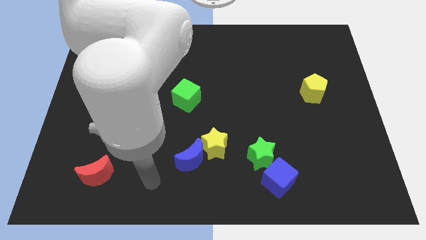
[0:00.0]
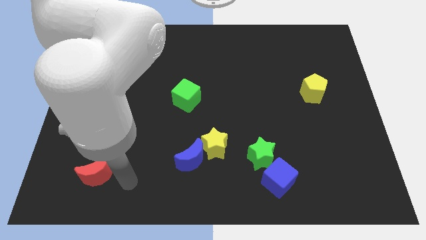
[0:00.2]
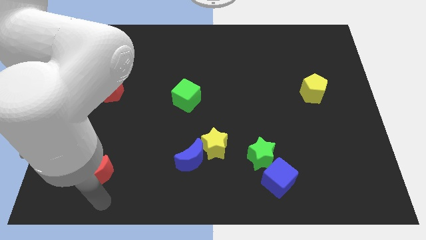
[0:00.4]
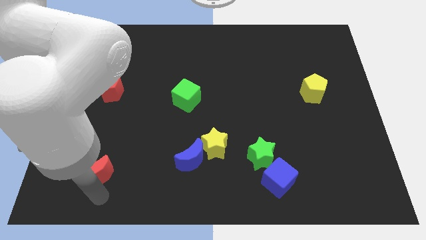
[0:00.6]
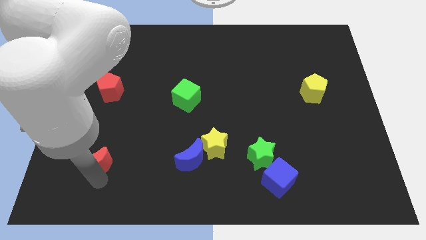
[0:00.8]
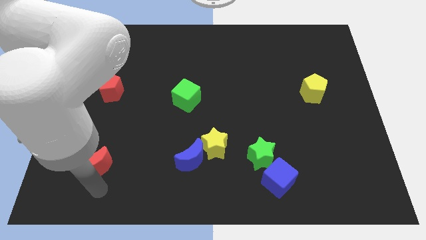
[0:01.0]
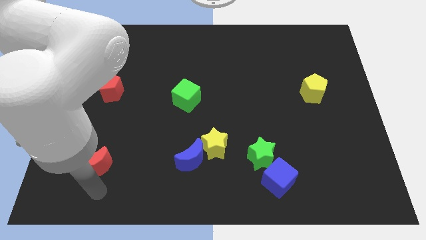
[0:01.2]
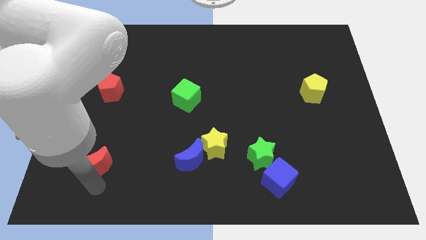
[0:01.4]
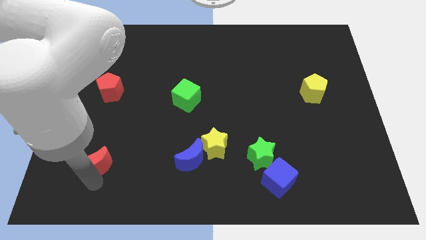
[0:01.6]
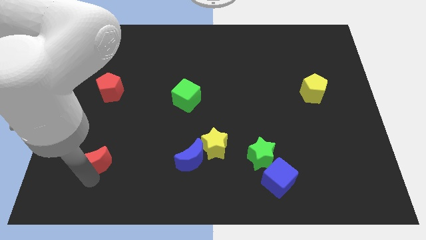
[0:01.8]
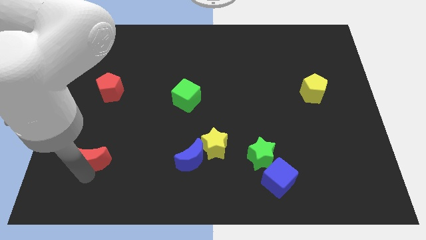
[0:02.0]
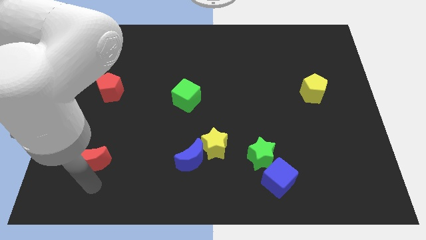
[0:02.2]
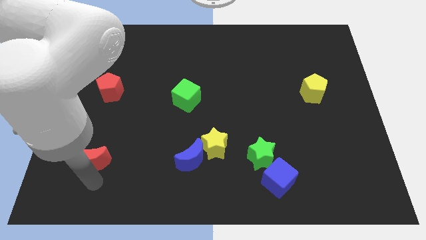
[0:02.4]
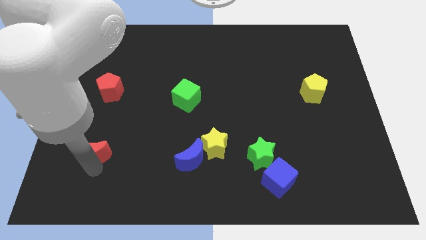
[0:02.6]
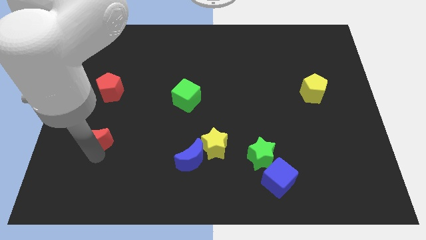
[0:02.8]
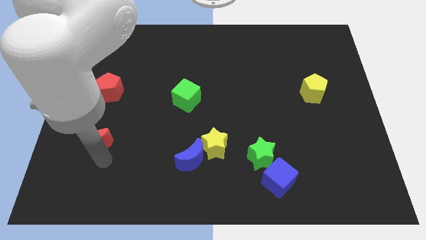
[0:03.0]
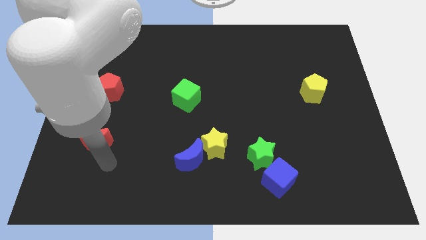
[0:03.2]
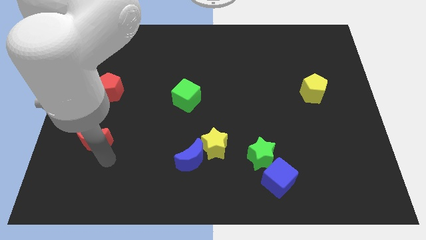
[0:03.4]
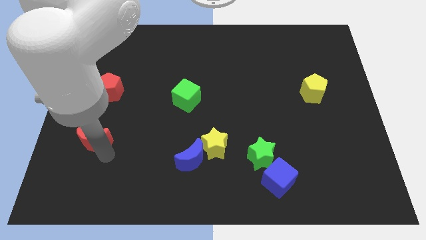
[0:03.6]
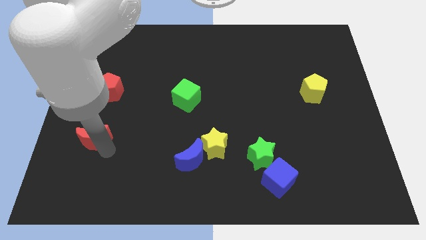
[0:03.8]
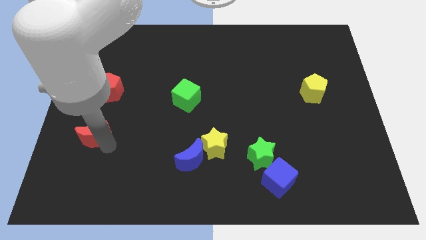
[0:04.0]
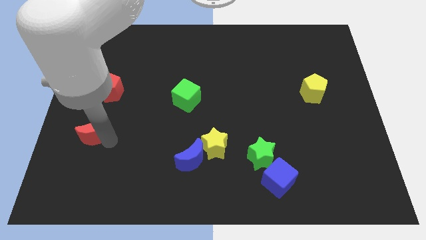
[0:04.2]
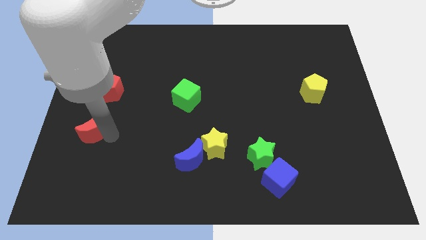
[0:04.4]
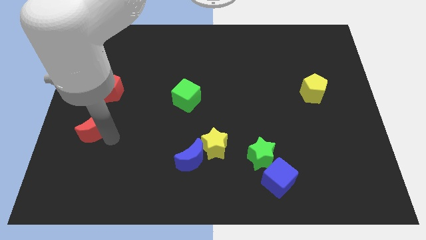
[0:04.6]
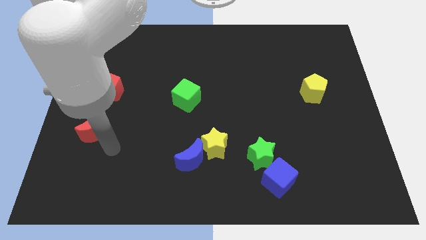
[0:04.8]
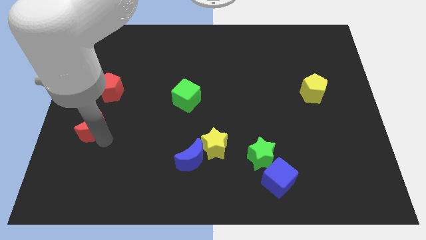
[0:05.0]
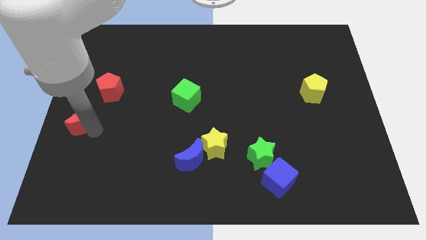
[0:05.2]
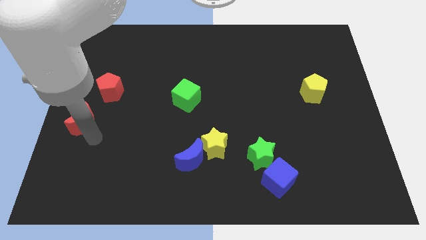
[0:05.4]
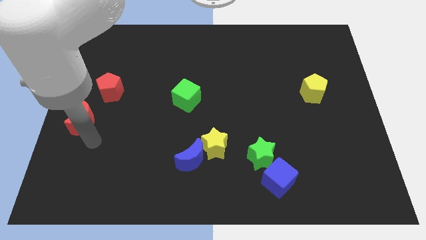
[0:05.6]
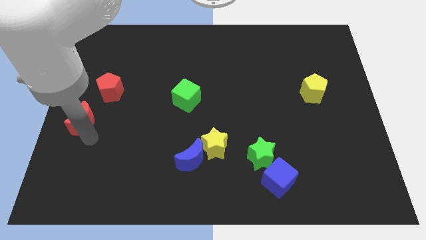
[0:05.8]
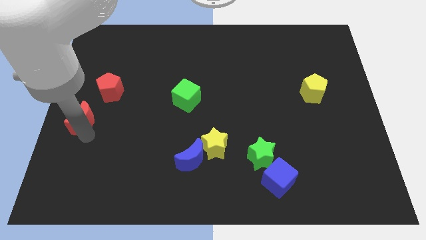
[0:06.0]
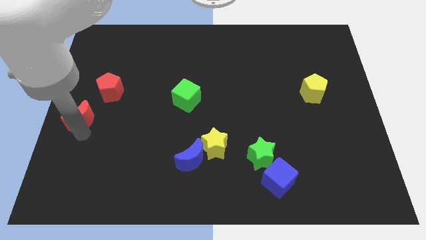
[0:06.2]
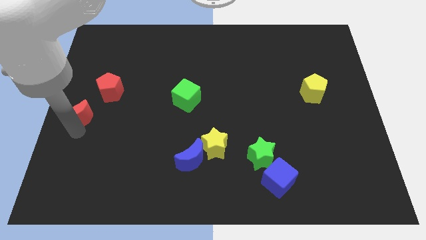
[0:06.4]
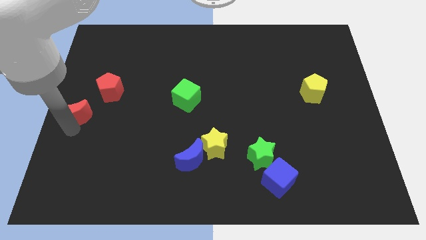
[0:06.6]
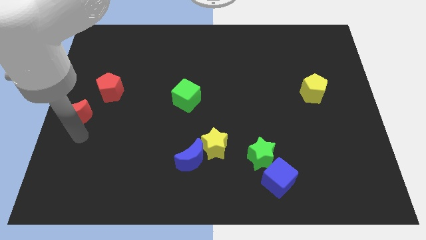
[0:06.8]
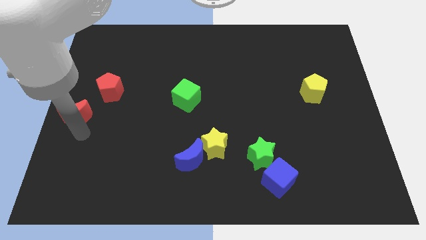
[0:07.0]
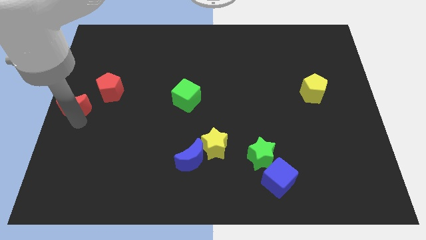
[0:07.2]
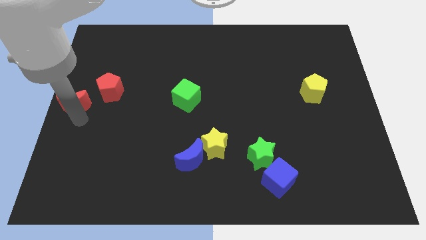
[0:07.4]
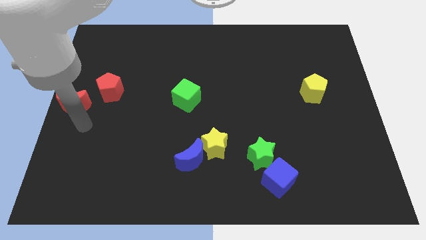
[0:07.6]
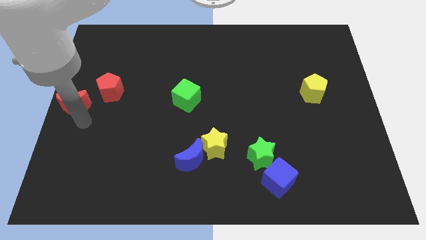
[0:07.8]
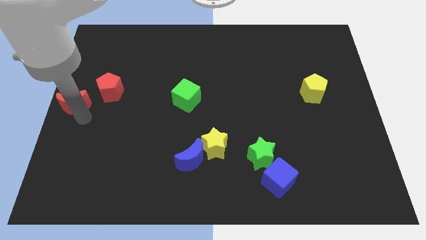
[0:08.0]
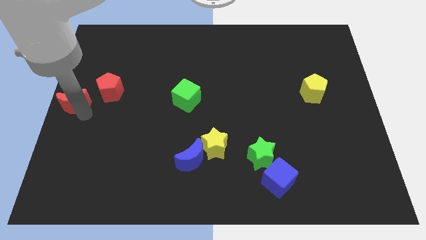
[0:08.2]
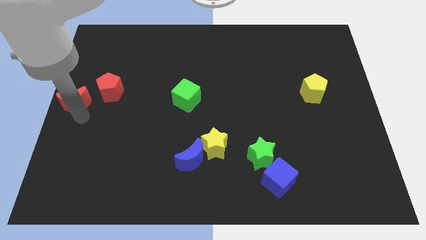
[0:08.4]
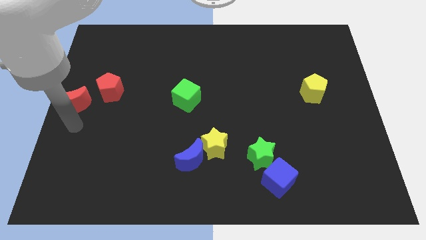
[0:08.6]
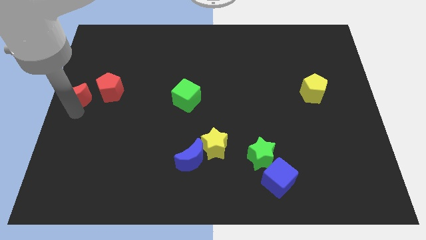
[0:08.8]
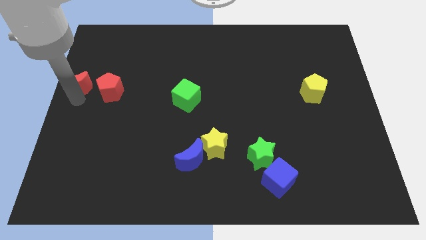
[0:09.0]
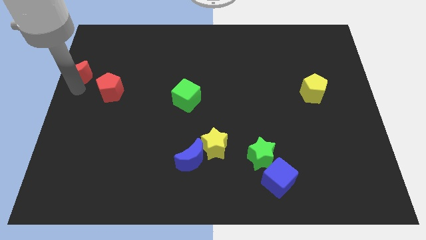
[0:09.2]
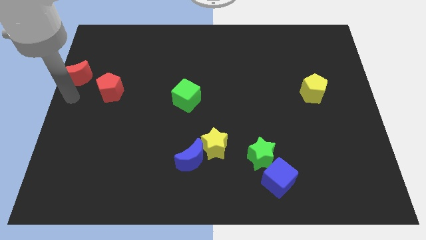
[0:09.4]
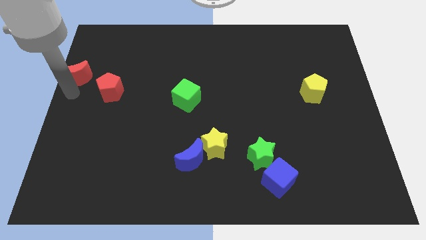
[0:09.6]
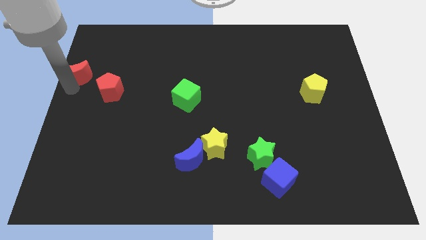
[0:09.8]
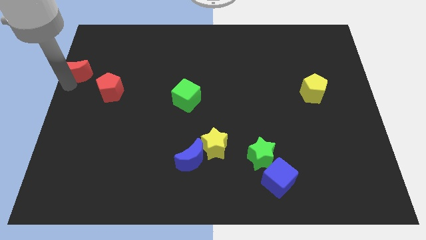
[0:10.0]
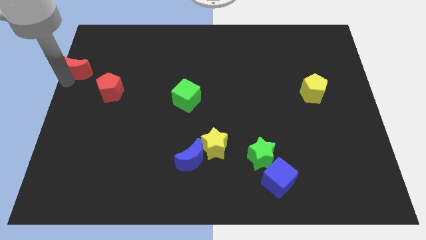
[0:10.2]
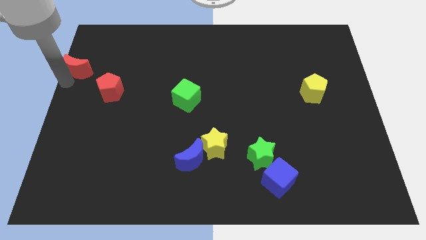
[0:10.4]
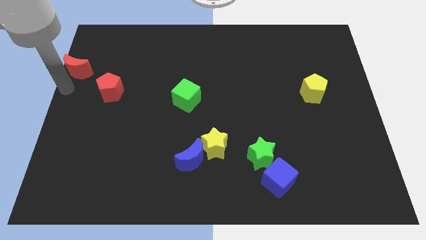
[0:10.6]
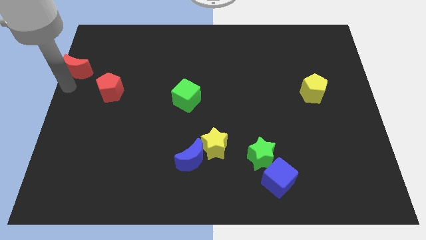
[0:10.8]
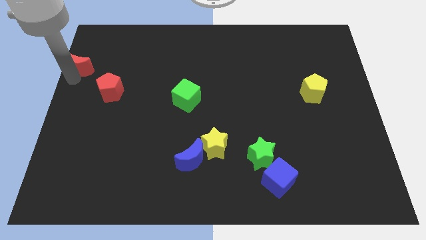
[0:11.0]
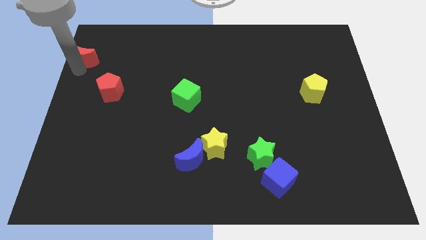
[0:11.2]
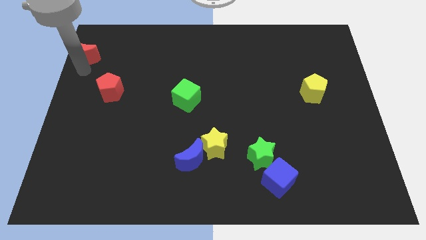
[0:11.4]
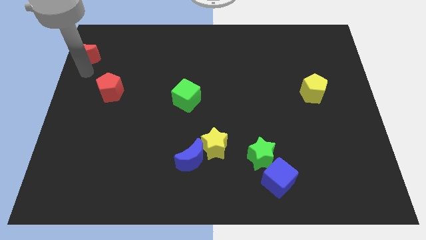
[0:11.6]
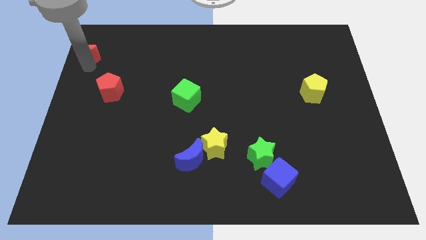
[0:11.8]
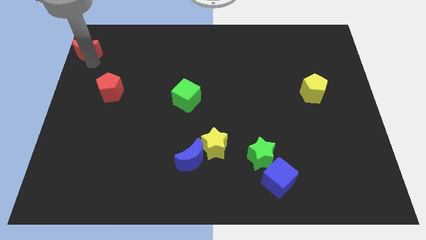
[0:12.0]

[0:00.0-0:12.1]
move the red moon to the top left

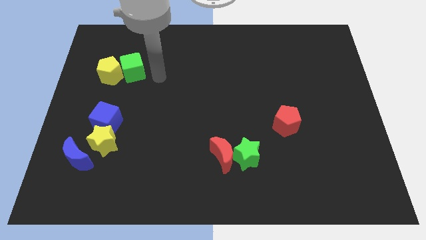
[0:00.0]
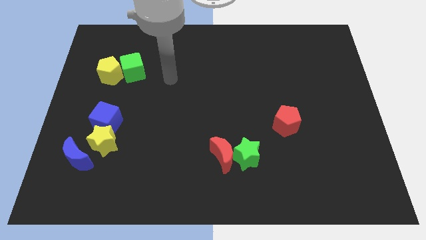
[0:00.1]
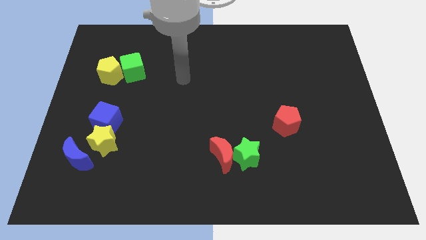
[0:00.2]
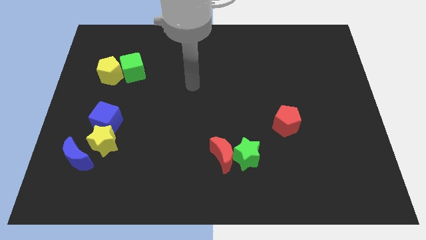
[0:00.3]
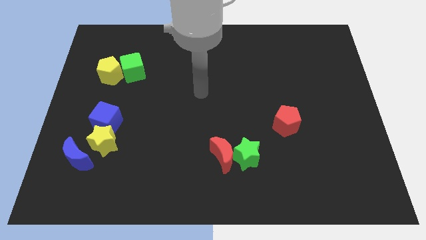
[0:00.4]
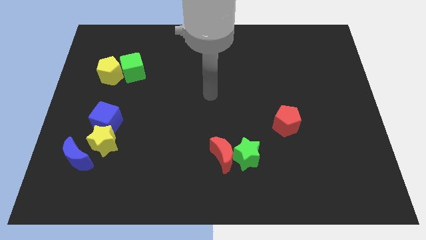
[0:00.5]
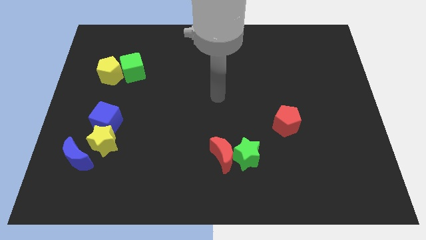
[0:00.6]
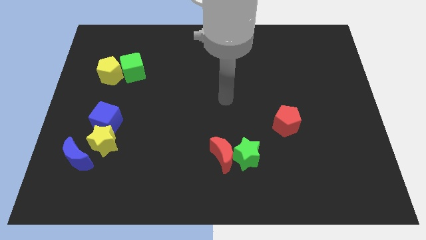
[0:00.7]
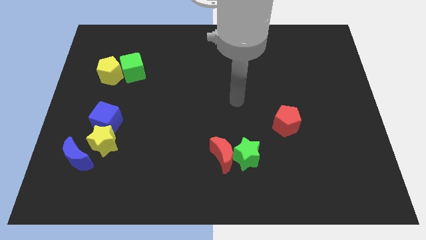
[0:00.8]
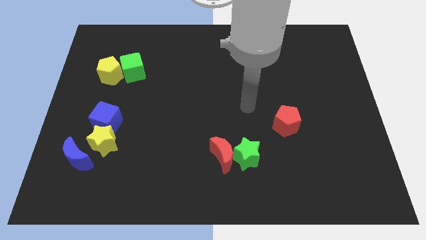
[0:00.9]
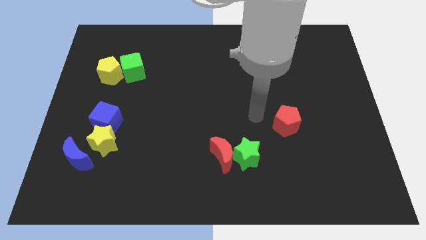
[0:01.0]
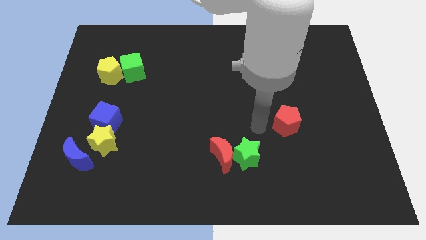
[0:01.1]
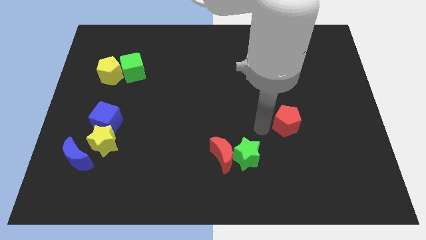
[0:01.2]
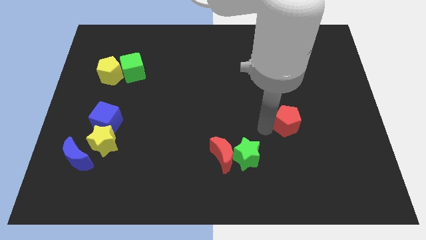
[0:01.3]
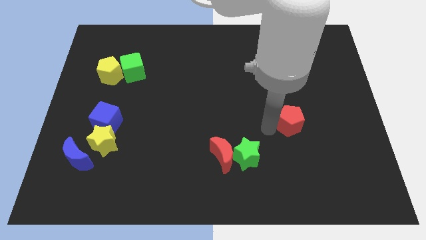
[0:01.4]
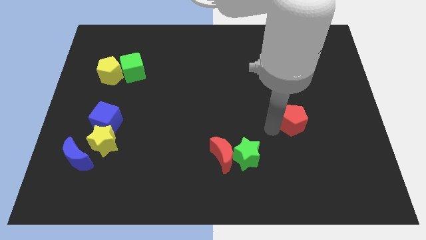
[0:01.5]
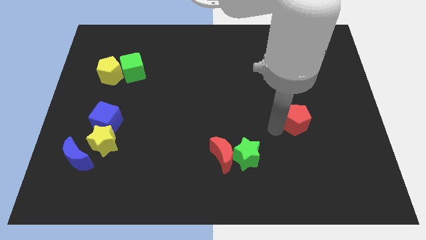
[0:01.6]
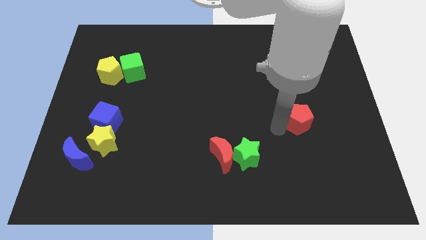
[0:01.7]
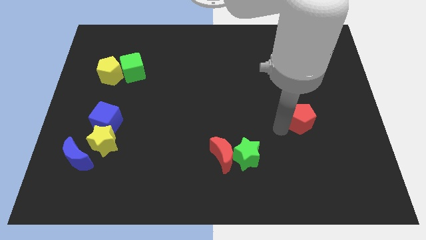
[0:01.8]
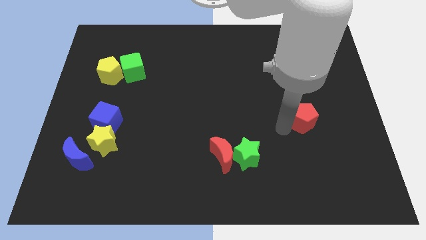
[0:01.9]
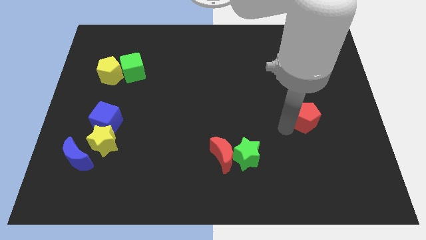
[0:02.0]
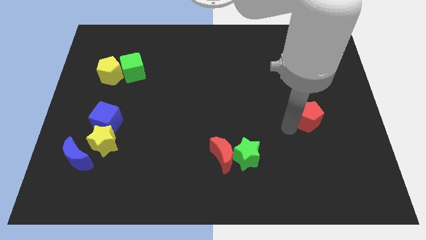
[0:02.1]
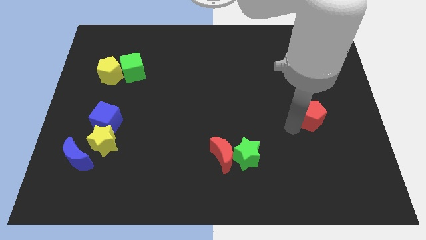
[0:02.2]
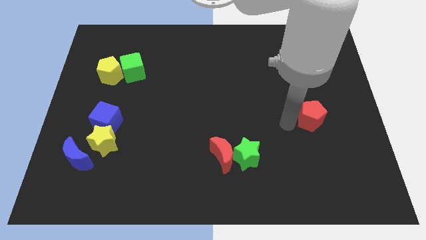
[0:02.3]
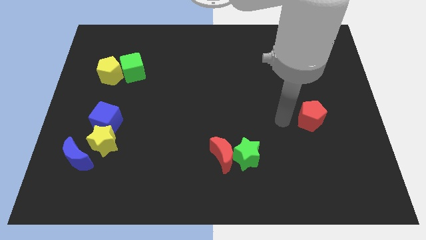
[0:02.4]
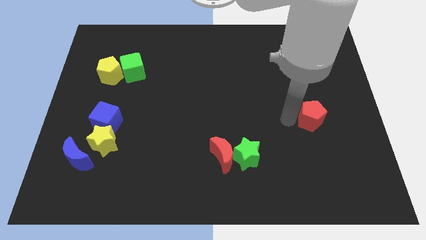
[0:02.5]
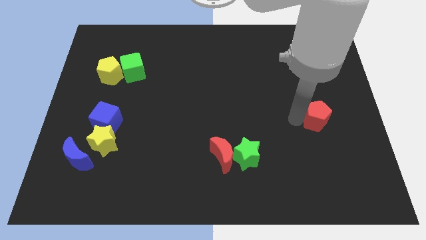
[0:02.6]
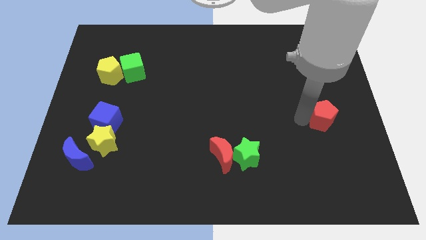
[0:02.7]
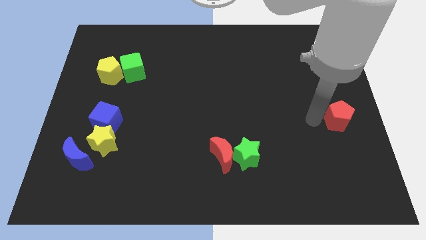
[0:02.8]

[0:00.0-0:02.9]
move the red pentagon to the right side
